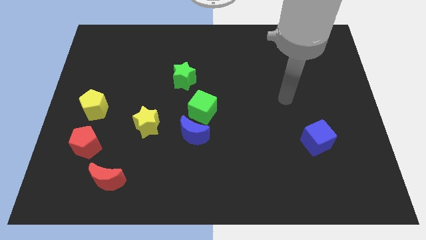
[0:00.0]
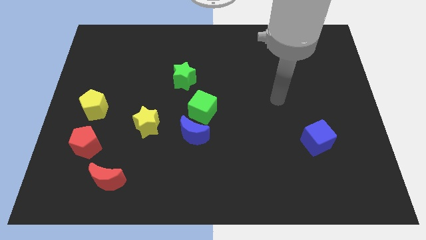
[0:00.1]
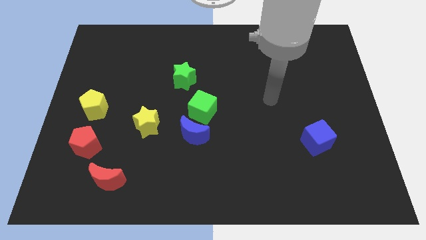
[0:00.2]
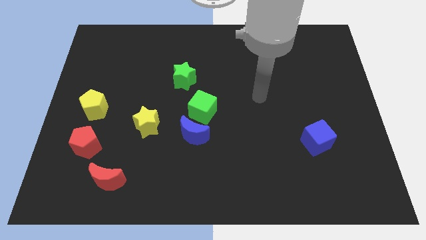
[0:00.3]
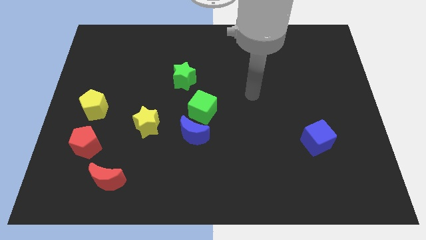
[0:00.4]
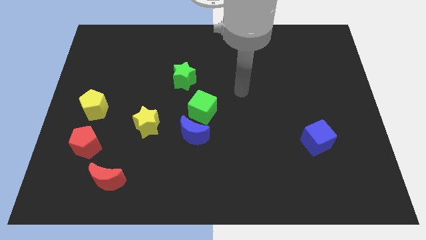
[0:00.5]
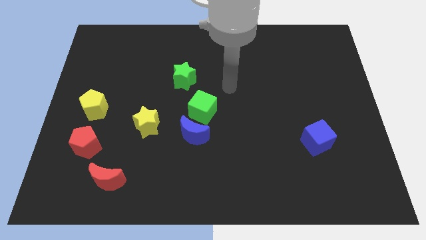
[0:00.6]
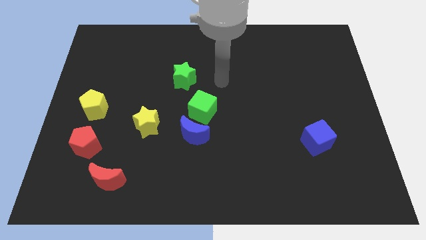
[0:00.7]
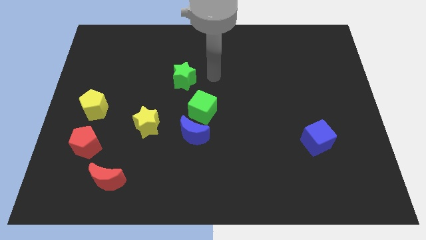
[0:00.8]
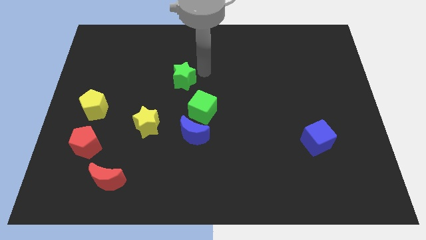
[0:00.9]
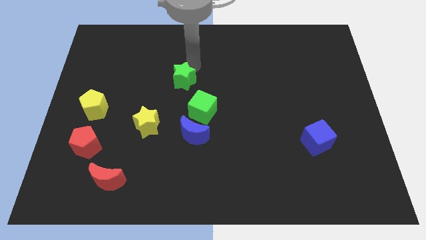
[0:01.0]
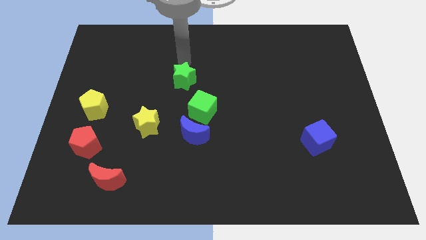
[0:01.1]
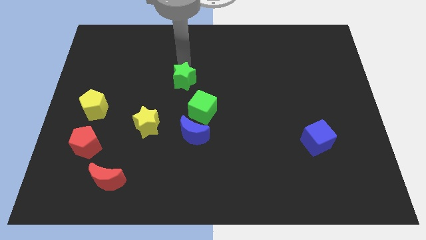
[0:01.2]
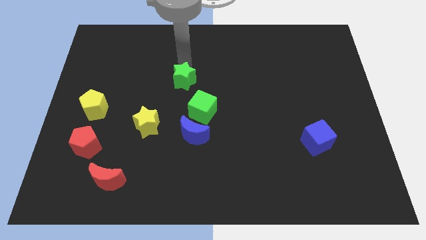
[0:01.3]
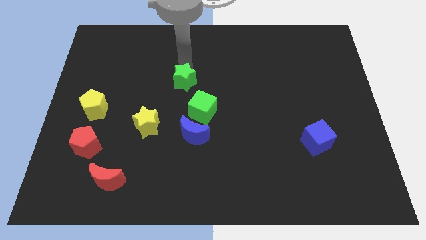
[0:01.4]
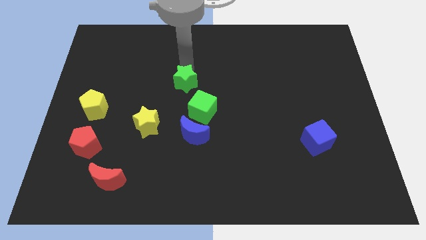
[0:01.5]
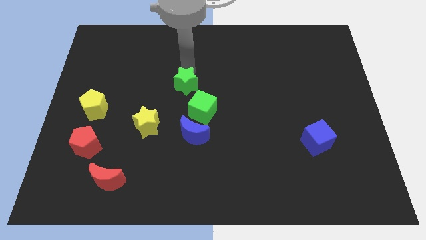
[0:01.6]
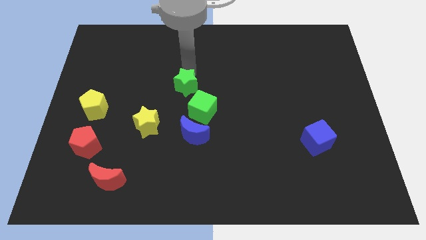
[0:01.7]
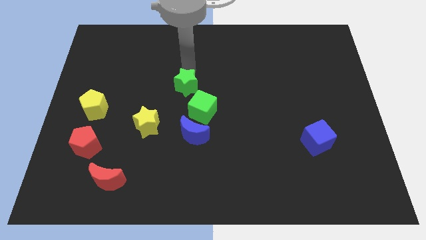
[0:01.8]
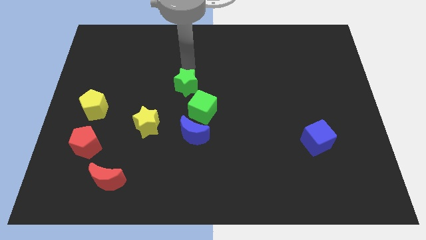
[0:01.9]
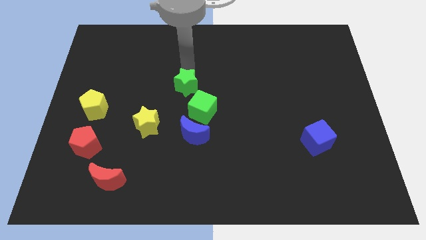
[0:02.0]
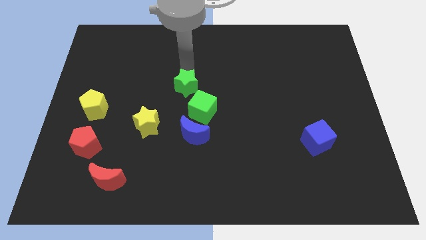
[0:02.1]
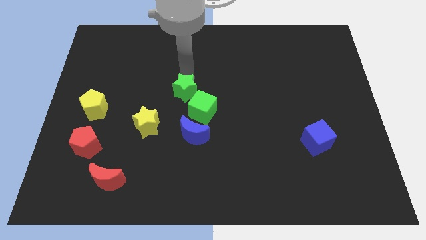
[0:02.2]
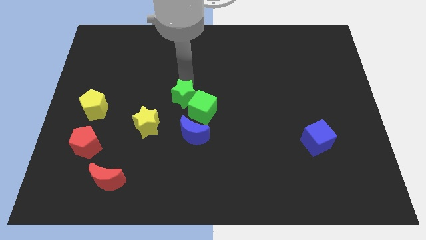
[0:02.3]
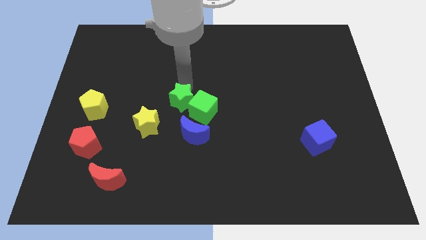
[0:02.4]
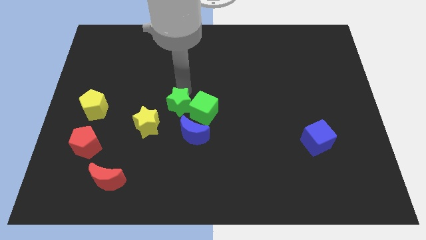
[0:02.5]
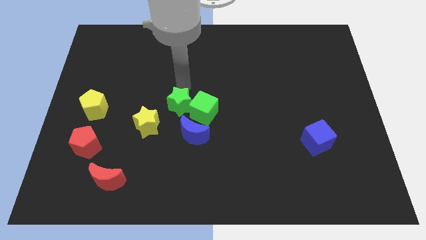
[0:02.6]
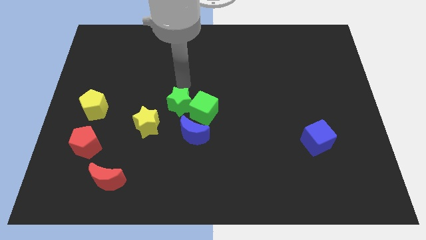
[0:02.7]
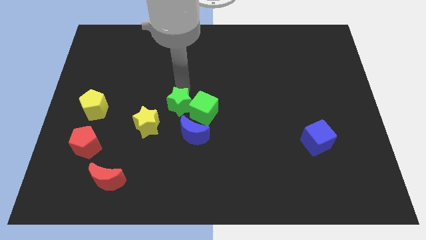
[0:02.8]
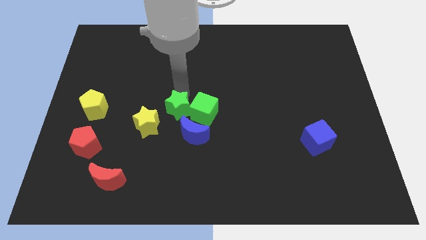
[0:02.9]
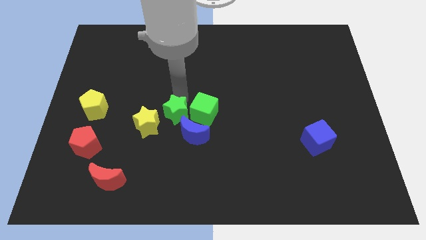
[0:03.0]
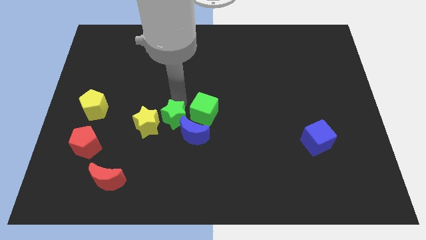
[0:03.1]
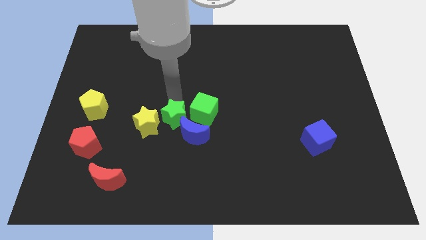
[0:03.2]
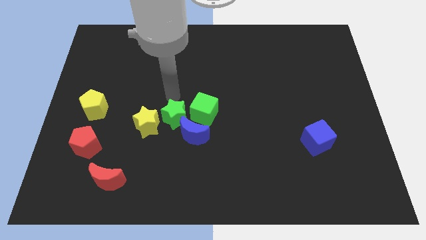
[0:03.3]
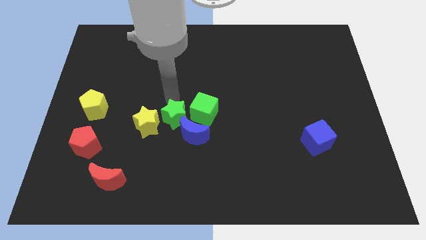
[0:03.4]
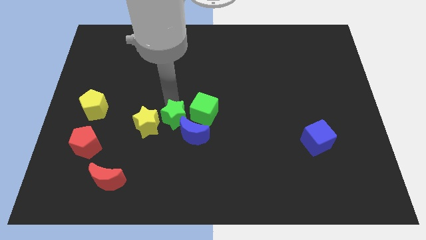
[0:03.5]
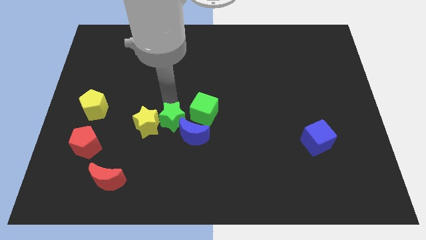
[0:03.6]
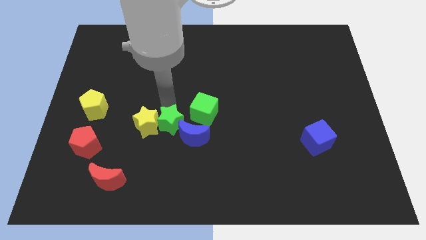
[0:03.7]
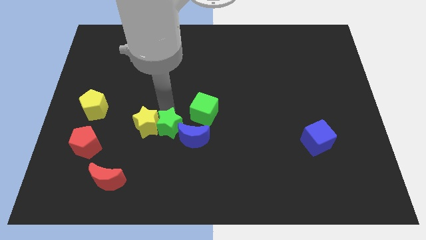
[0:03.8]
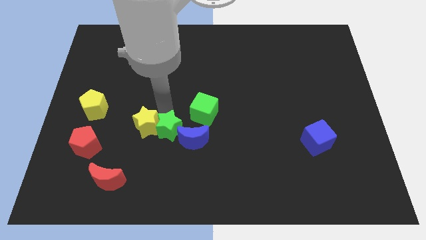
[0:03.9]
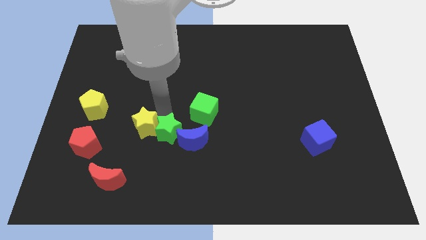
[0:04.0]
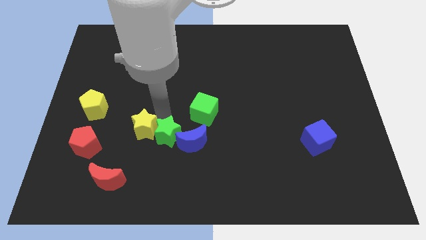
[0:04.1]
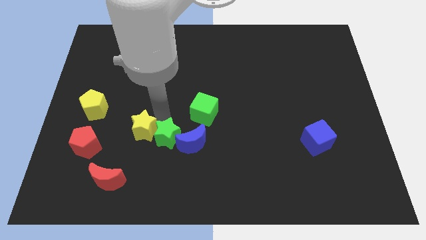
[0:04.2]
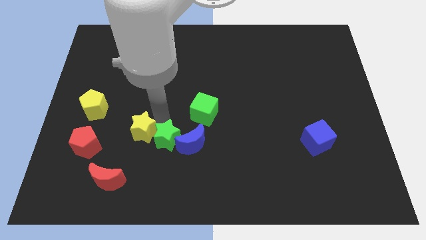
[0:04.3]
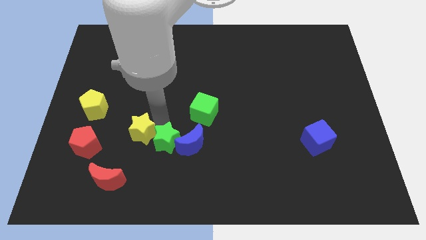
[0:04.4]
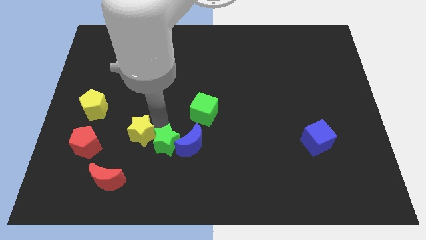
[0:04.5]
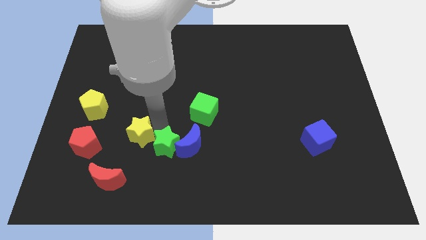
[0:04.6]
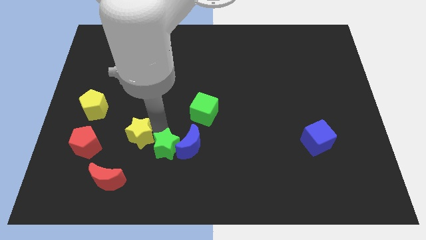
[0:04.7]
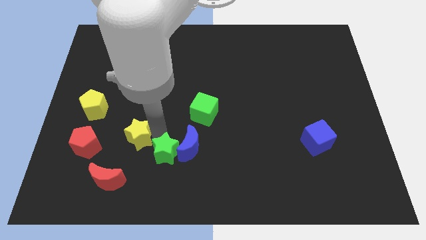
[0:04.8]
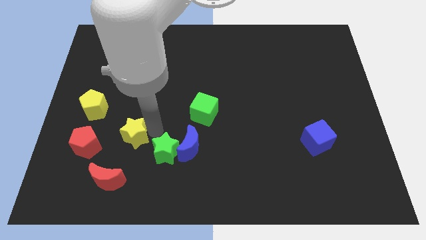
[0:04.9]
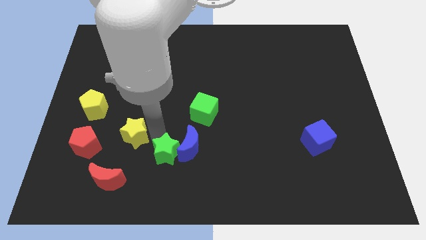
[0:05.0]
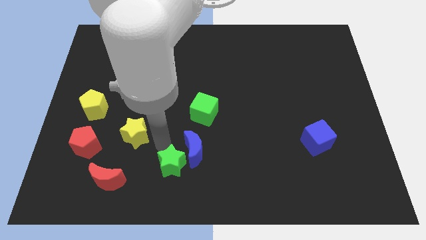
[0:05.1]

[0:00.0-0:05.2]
put the green star below the blue moon

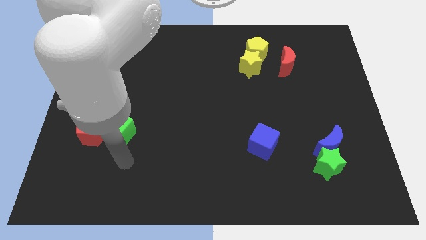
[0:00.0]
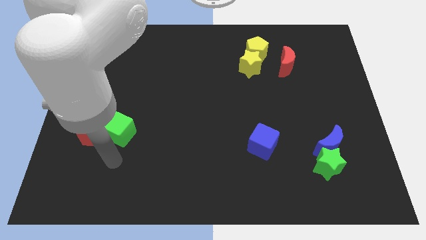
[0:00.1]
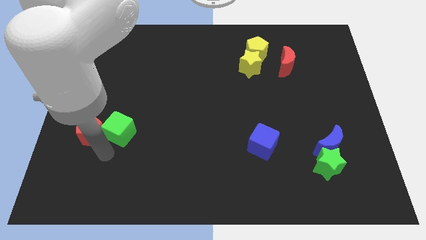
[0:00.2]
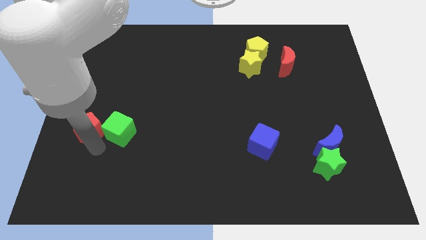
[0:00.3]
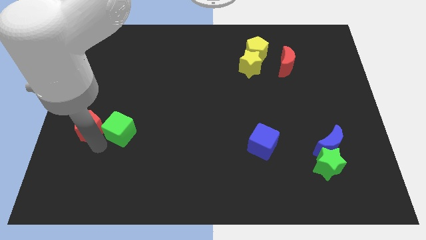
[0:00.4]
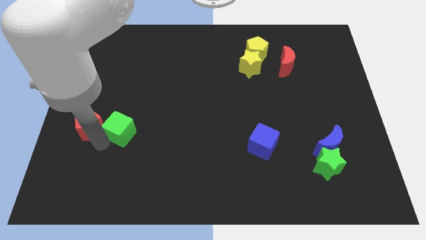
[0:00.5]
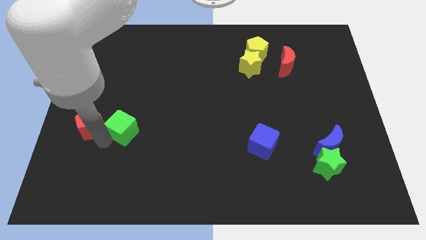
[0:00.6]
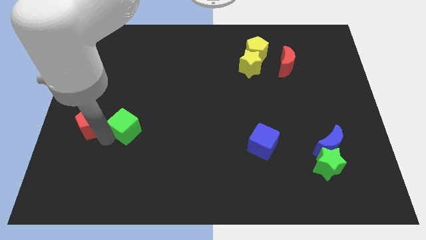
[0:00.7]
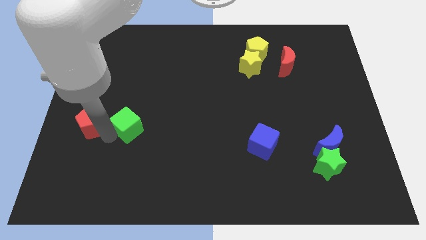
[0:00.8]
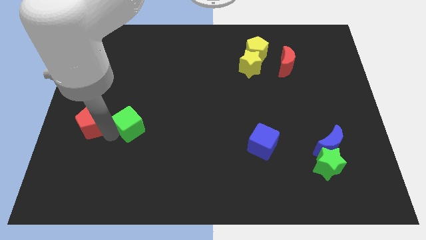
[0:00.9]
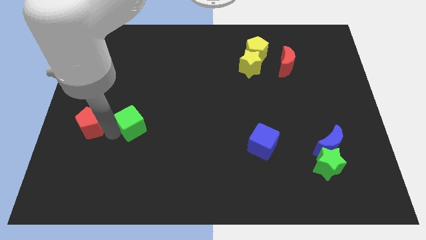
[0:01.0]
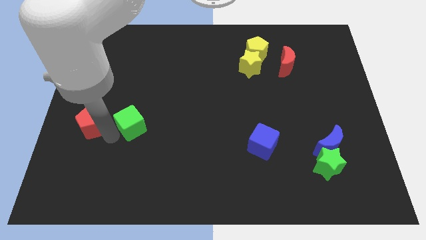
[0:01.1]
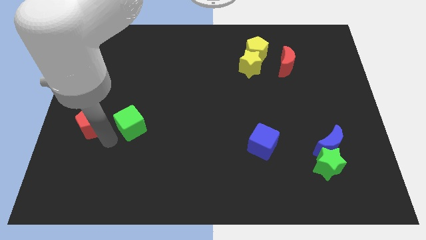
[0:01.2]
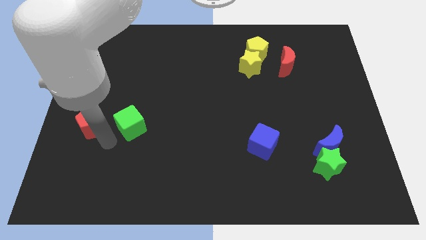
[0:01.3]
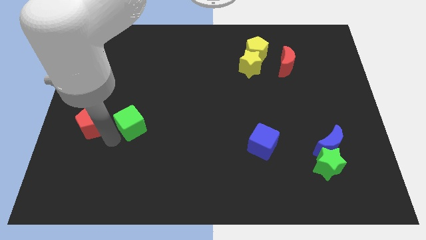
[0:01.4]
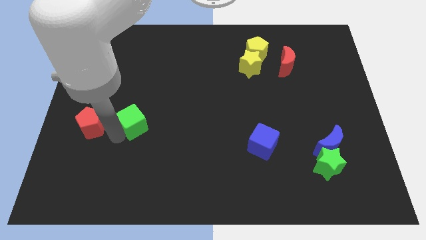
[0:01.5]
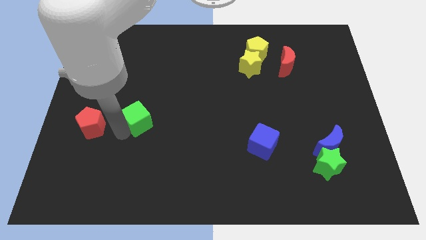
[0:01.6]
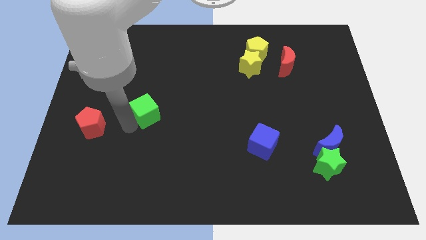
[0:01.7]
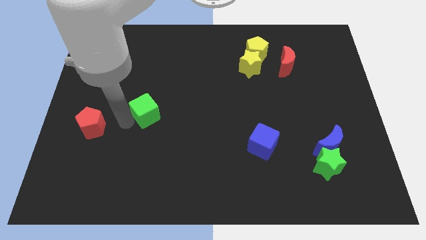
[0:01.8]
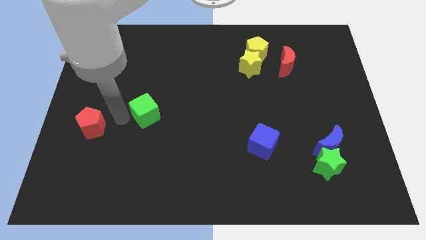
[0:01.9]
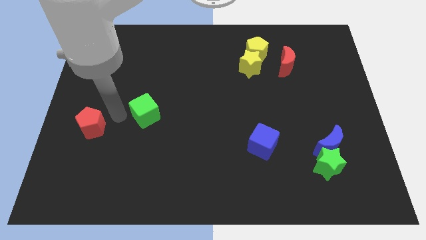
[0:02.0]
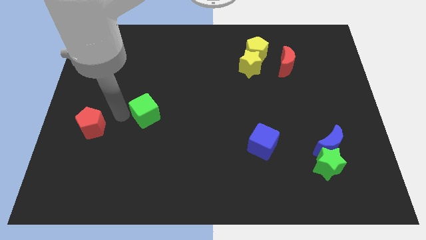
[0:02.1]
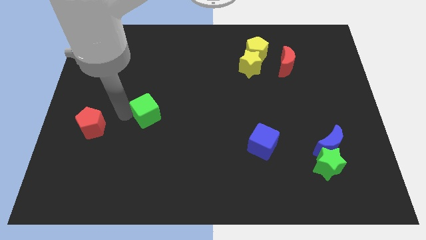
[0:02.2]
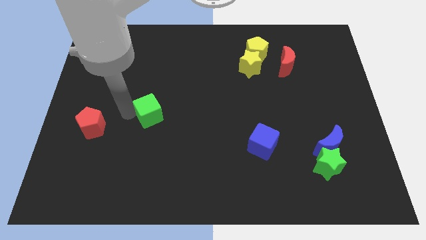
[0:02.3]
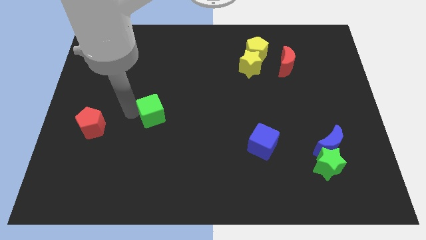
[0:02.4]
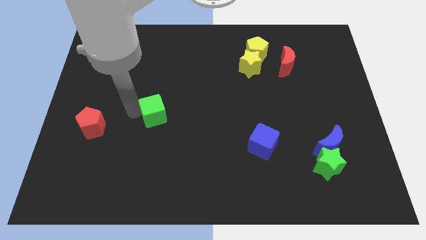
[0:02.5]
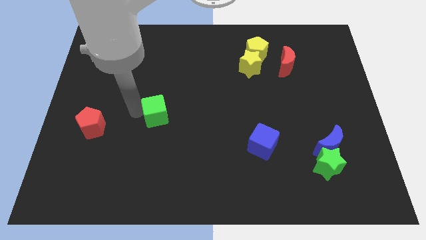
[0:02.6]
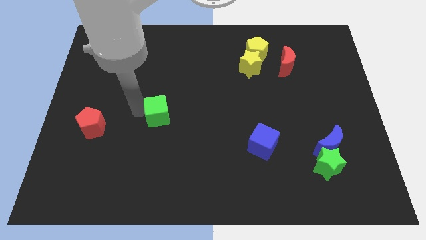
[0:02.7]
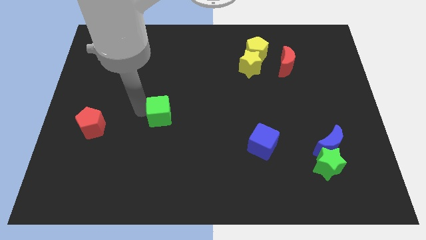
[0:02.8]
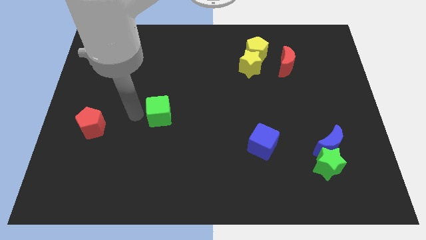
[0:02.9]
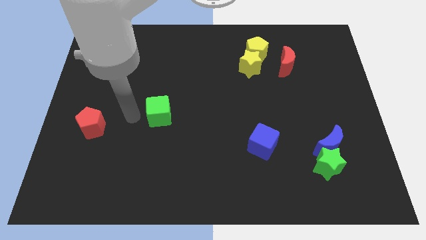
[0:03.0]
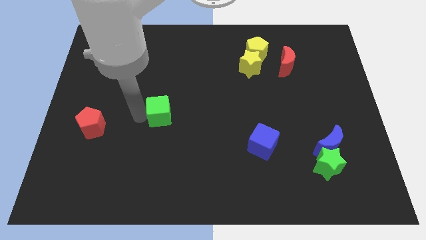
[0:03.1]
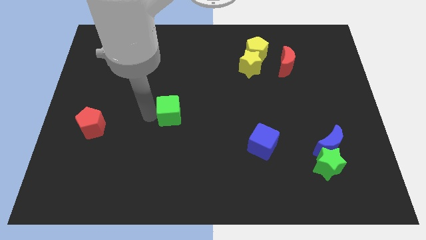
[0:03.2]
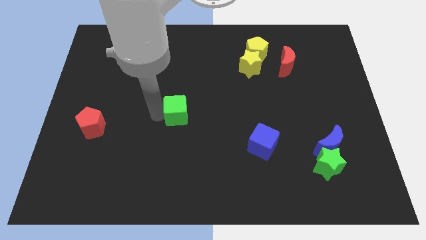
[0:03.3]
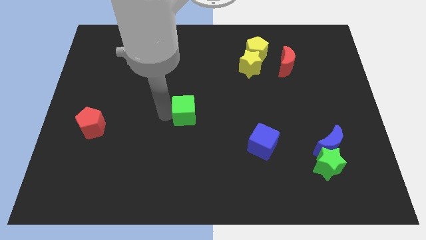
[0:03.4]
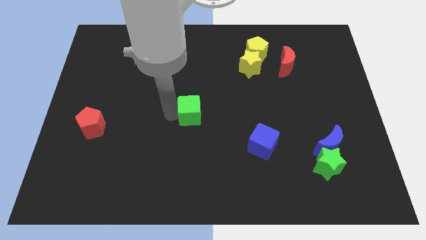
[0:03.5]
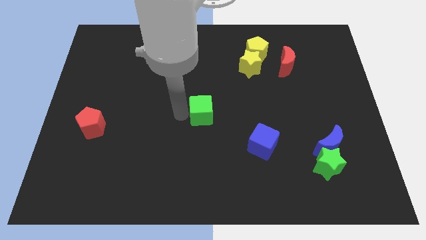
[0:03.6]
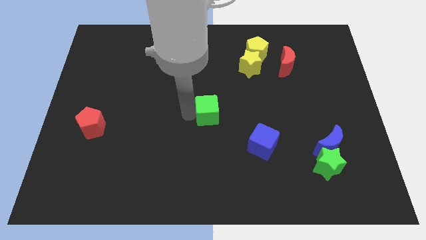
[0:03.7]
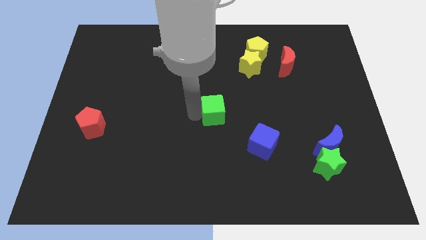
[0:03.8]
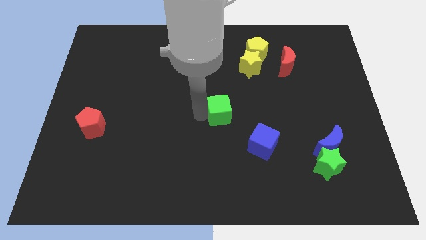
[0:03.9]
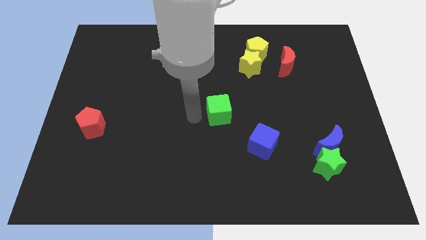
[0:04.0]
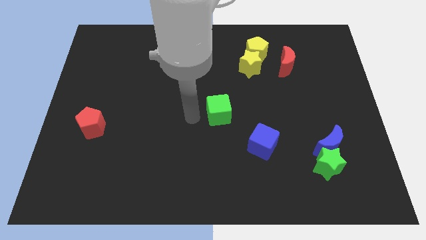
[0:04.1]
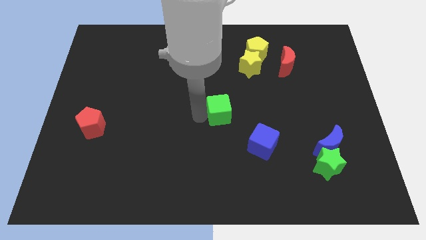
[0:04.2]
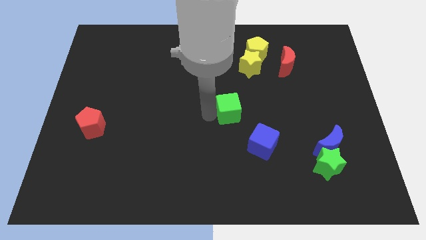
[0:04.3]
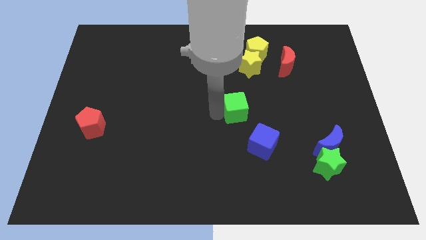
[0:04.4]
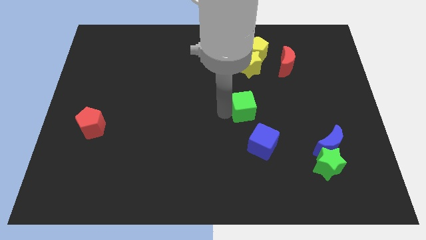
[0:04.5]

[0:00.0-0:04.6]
push the green cube to the top of the blue cube
